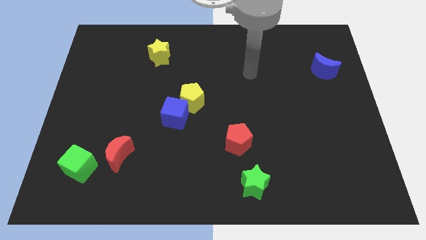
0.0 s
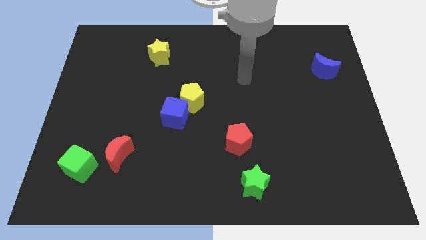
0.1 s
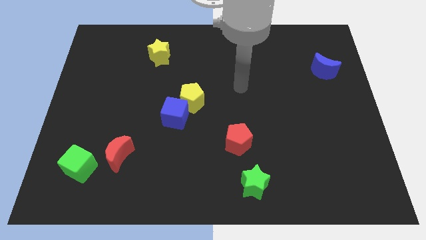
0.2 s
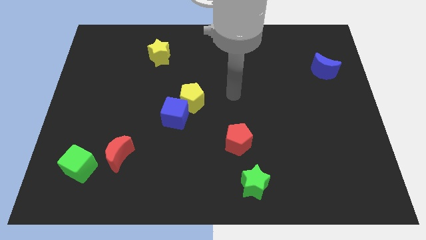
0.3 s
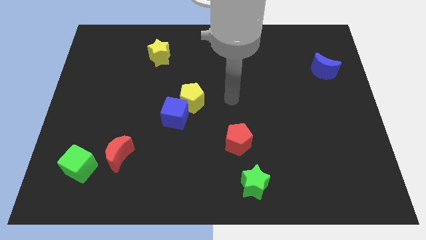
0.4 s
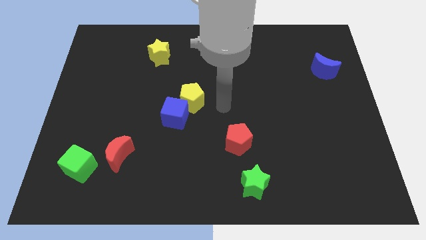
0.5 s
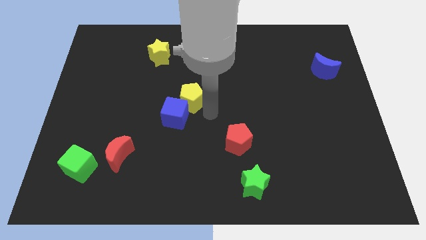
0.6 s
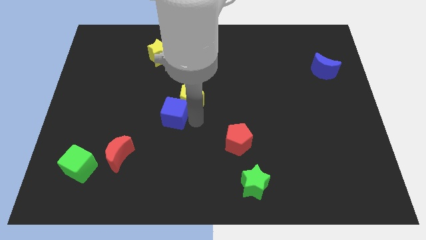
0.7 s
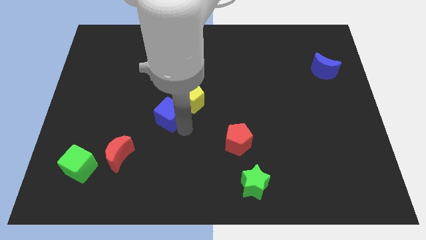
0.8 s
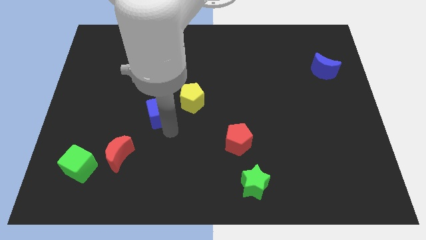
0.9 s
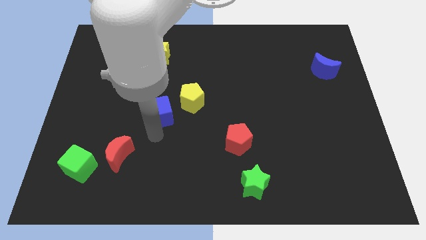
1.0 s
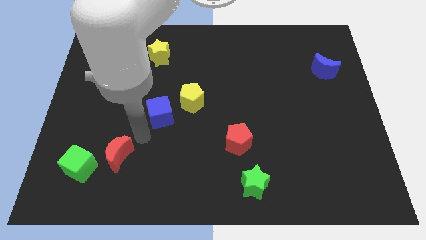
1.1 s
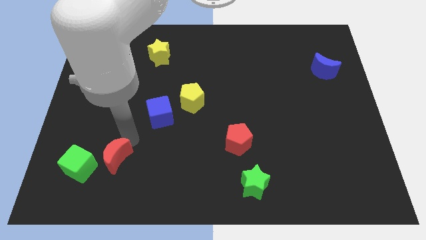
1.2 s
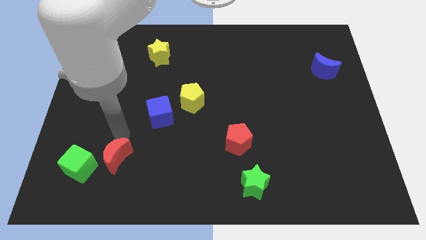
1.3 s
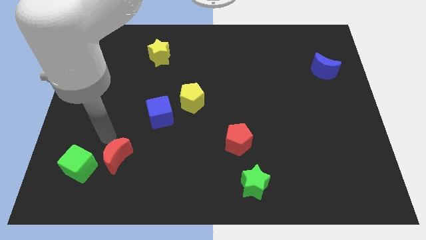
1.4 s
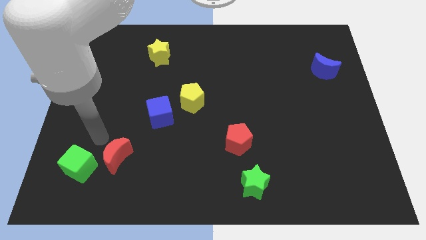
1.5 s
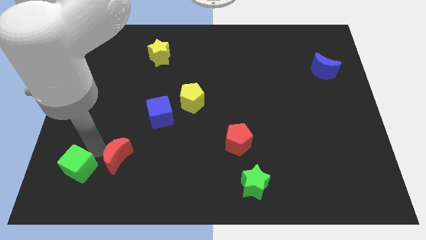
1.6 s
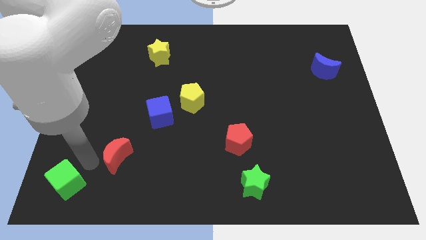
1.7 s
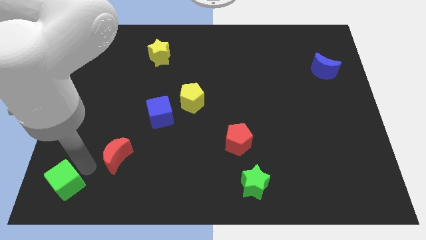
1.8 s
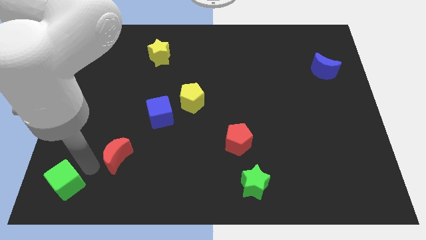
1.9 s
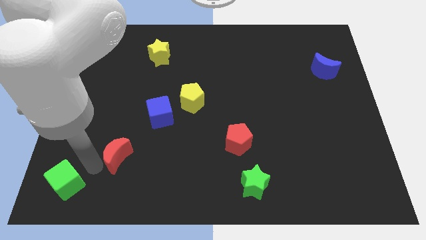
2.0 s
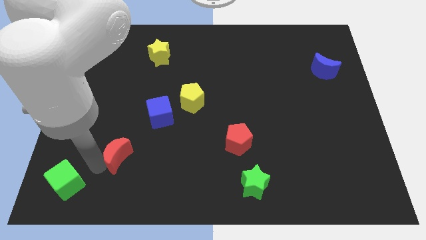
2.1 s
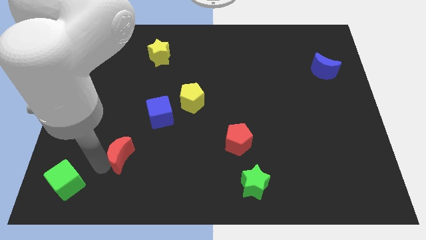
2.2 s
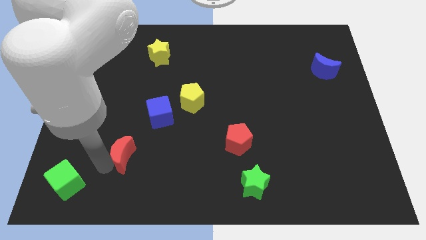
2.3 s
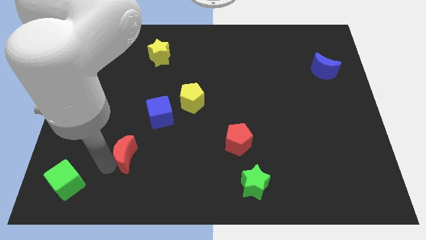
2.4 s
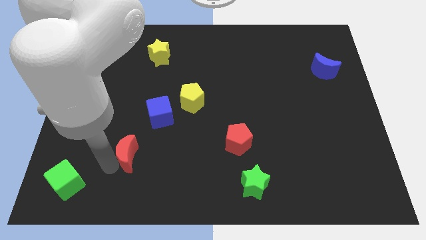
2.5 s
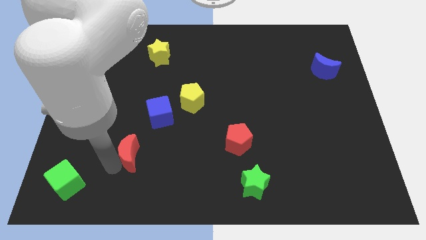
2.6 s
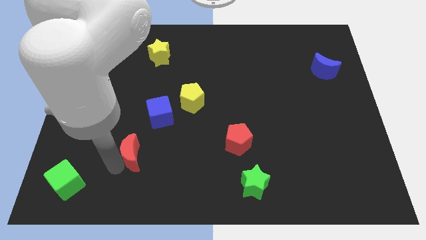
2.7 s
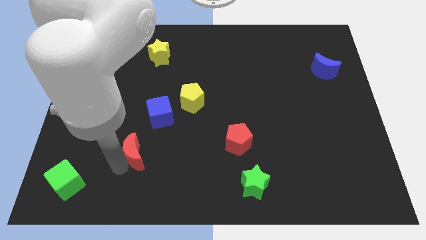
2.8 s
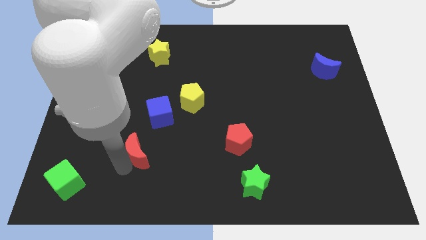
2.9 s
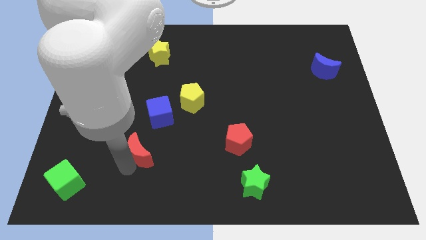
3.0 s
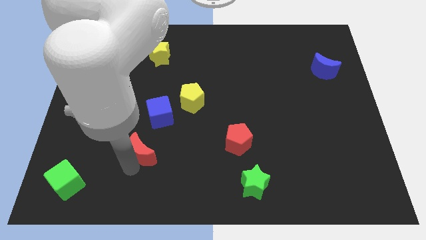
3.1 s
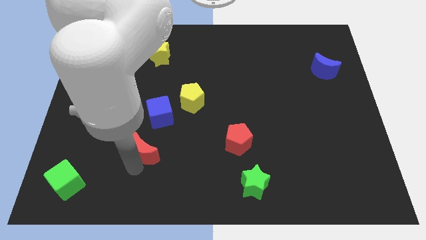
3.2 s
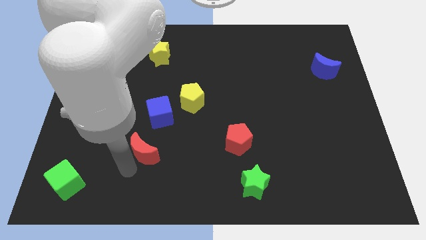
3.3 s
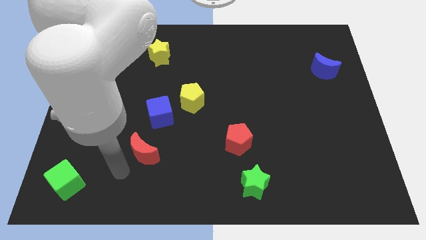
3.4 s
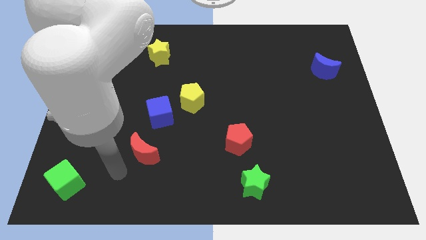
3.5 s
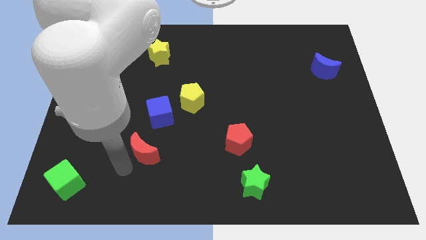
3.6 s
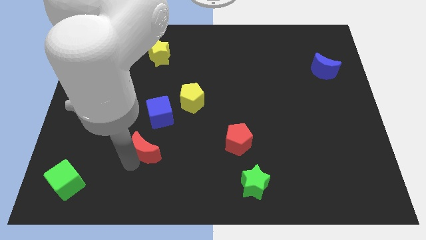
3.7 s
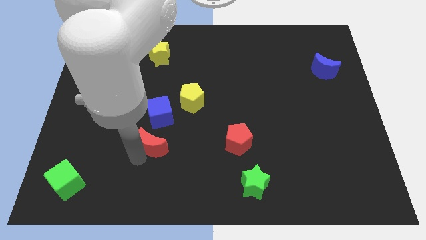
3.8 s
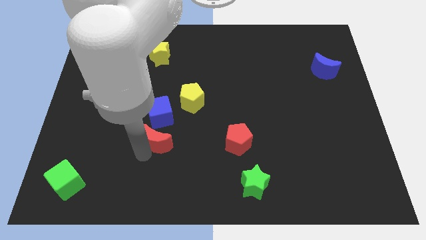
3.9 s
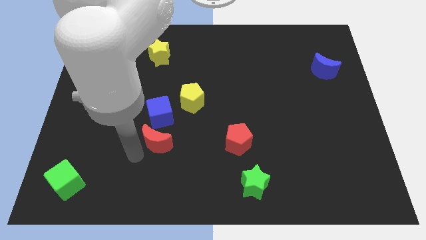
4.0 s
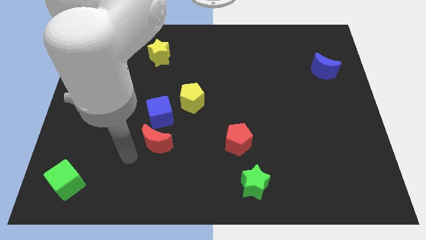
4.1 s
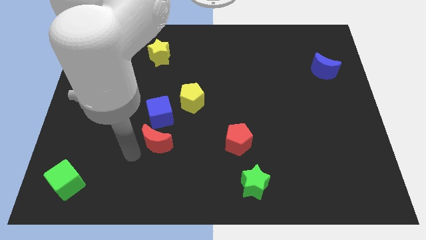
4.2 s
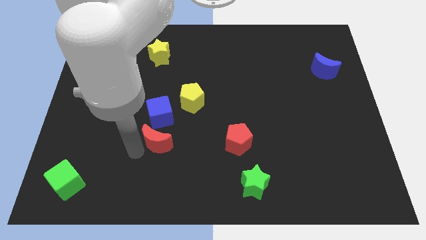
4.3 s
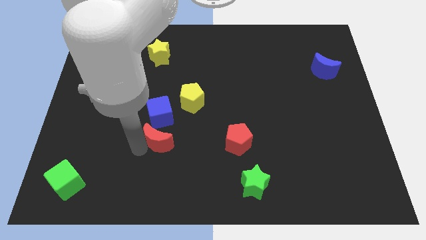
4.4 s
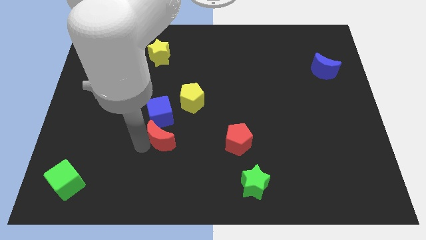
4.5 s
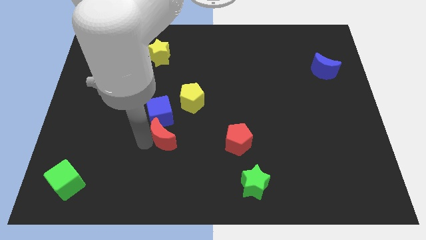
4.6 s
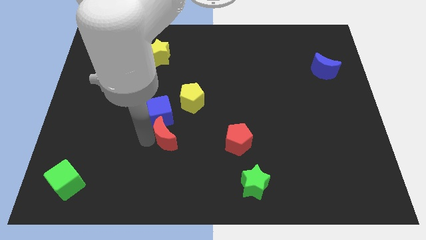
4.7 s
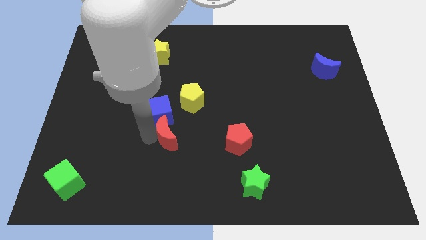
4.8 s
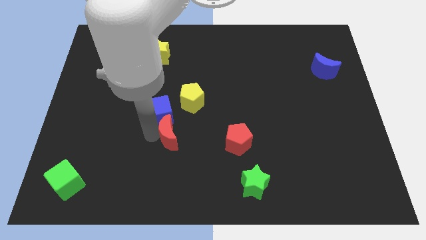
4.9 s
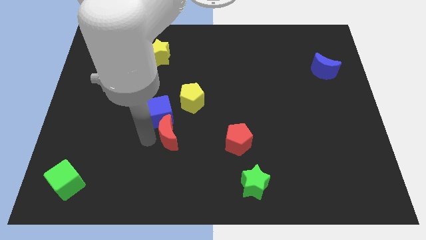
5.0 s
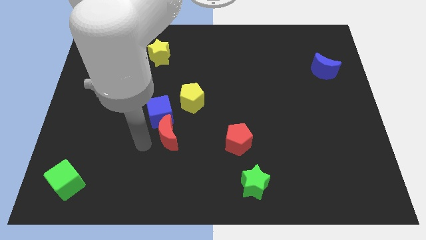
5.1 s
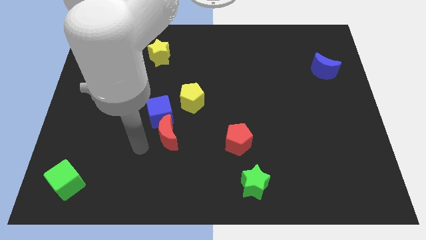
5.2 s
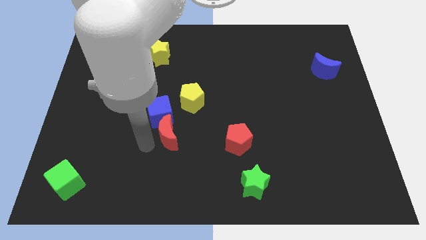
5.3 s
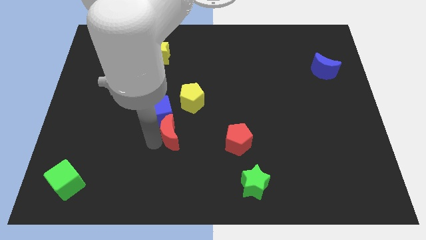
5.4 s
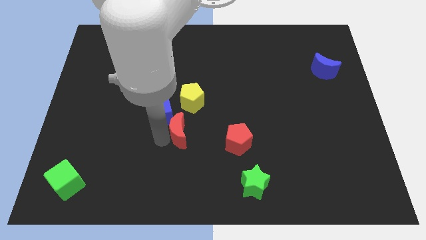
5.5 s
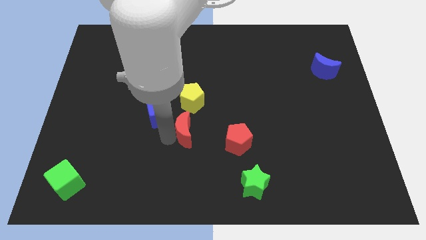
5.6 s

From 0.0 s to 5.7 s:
push the red moon just right of the blue cube

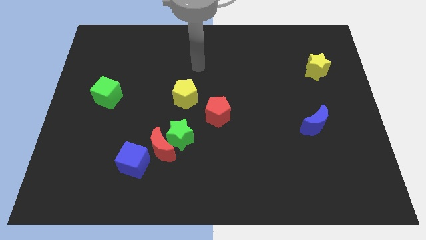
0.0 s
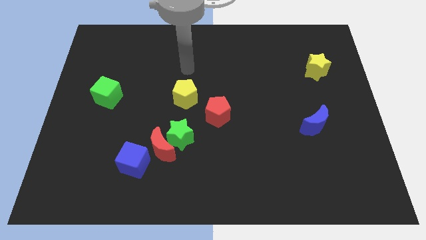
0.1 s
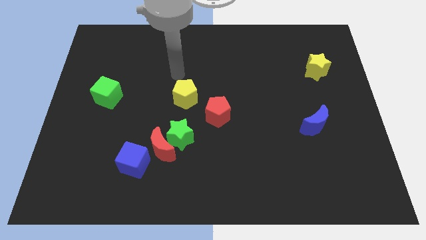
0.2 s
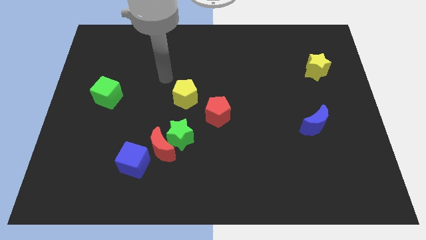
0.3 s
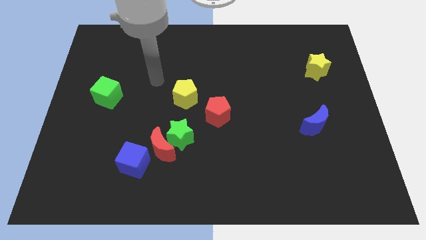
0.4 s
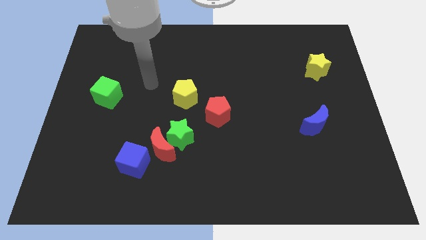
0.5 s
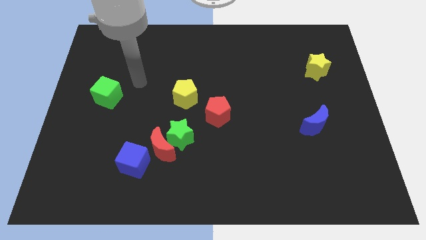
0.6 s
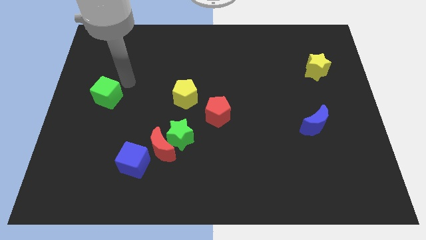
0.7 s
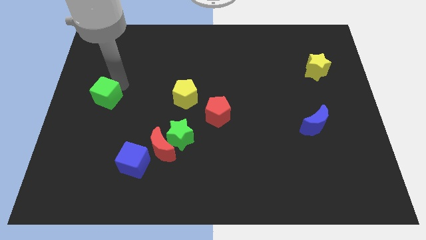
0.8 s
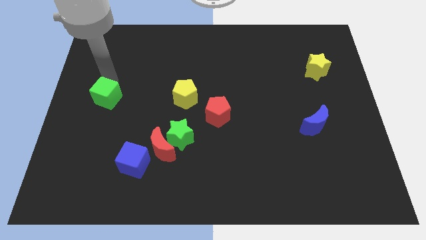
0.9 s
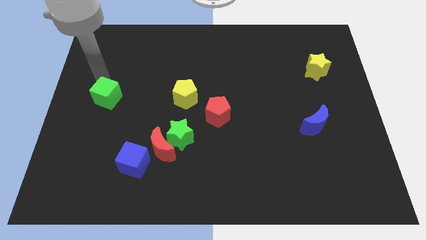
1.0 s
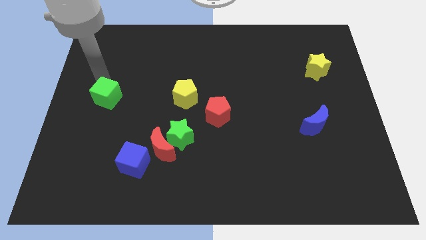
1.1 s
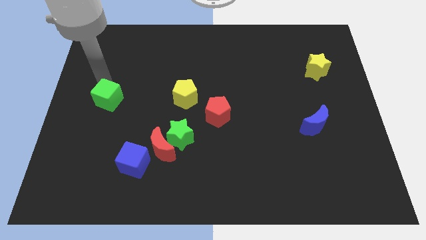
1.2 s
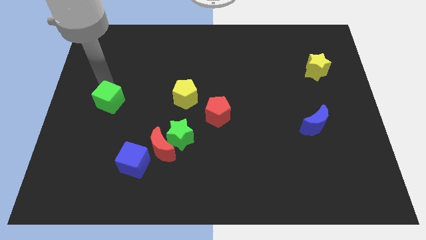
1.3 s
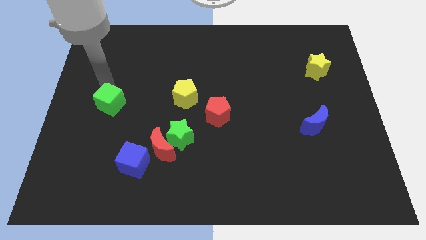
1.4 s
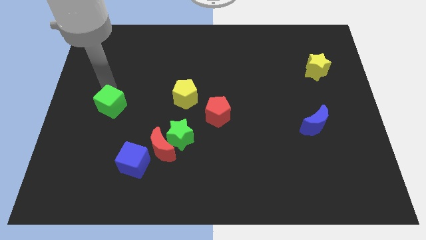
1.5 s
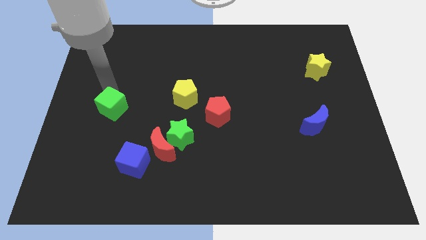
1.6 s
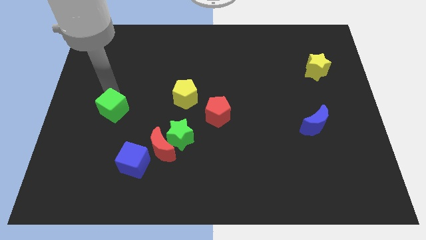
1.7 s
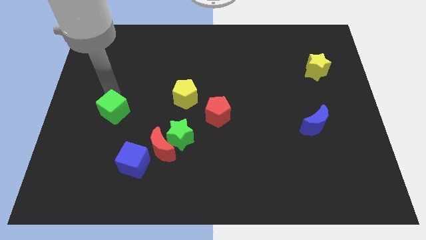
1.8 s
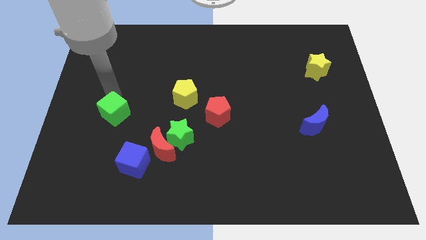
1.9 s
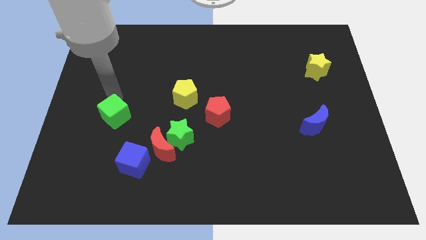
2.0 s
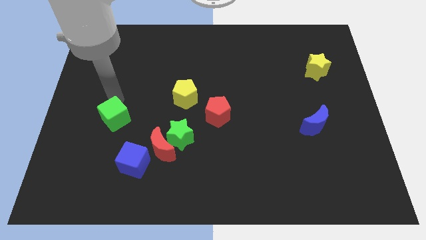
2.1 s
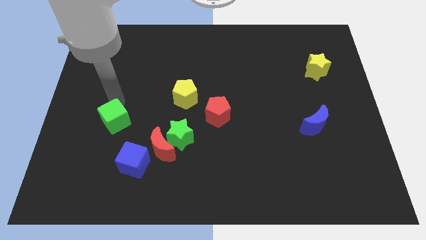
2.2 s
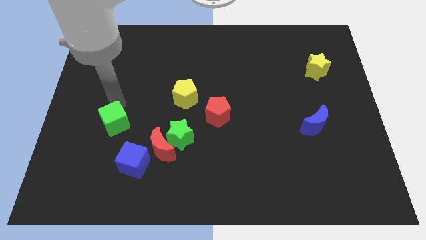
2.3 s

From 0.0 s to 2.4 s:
put the green cube to the top left of the blue cube
